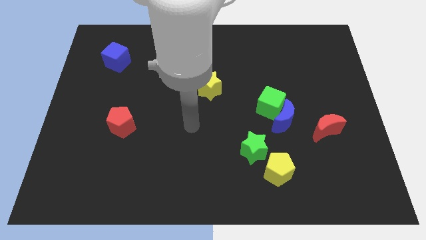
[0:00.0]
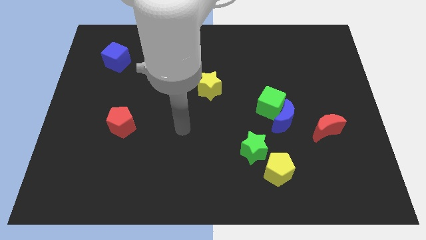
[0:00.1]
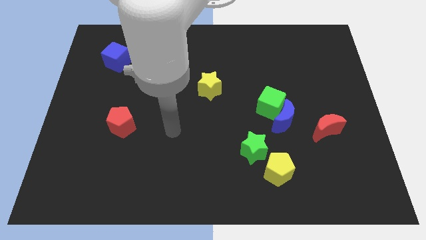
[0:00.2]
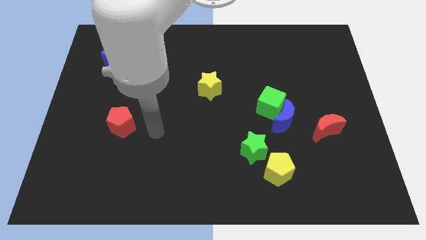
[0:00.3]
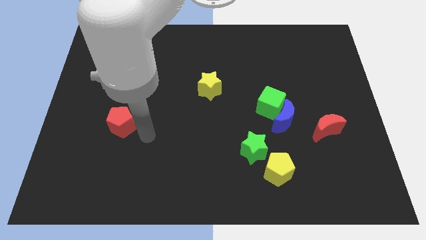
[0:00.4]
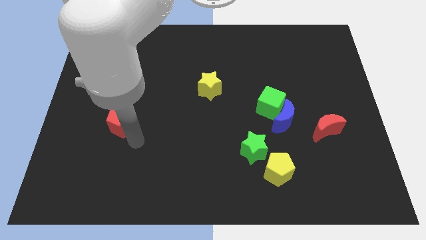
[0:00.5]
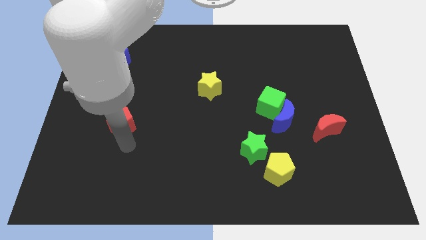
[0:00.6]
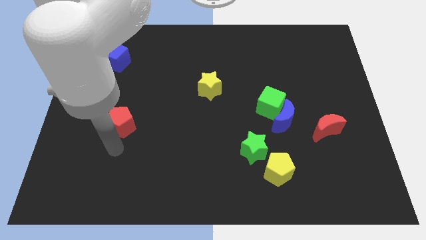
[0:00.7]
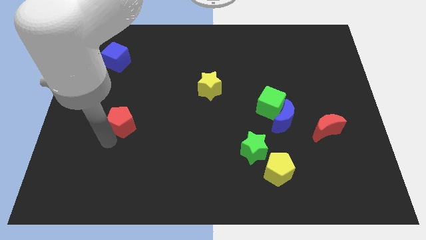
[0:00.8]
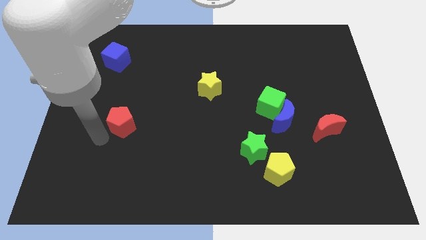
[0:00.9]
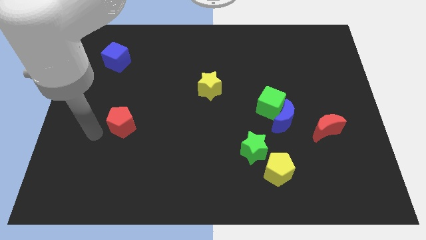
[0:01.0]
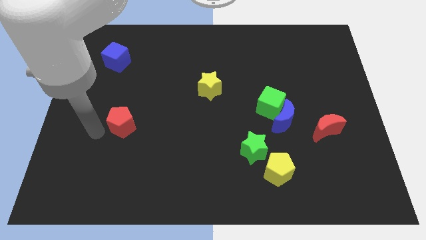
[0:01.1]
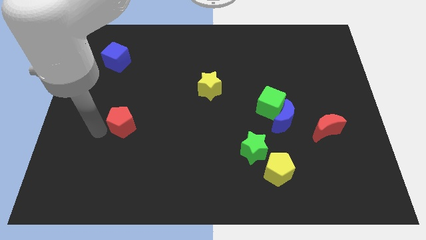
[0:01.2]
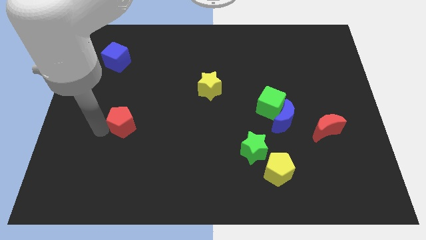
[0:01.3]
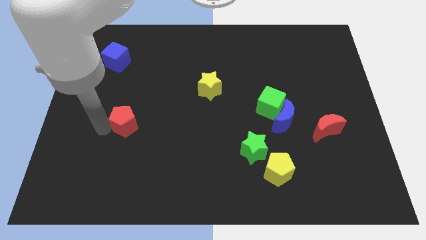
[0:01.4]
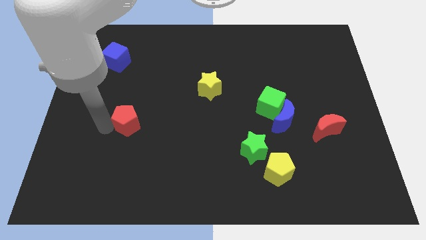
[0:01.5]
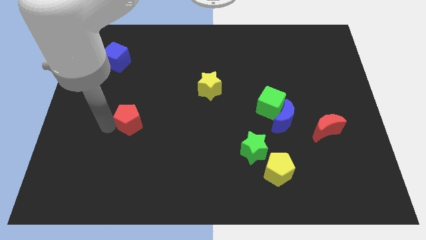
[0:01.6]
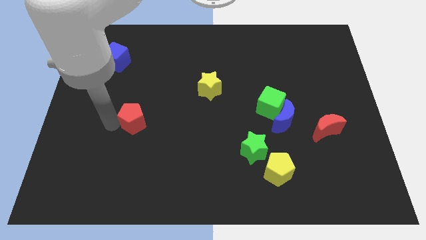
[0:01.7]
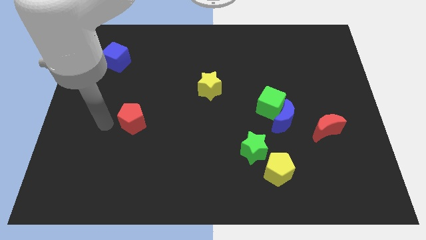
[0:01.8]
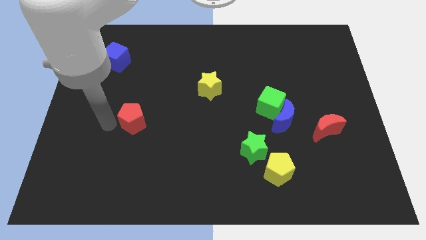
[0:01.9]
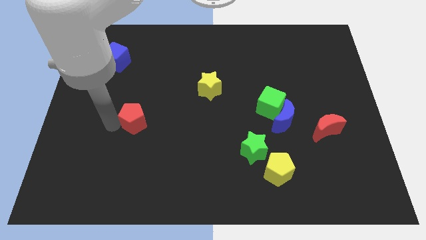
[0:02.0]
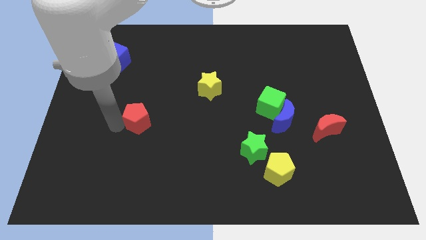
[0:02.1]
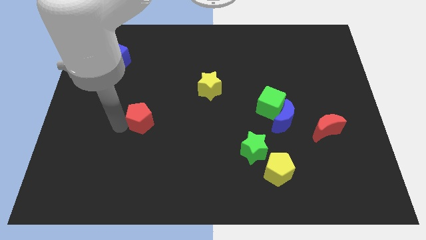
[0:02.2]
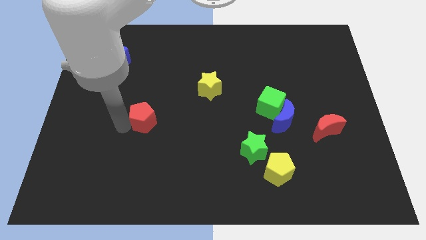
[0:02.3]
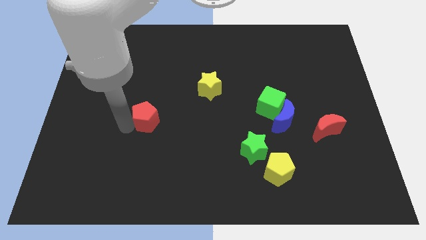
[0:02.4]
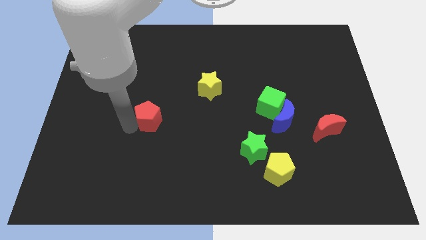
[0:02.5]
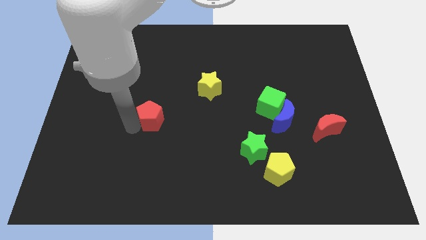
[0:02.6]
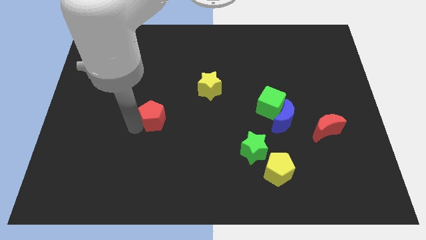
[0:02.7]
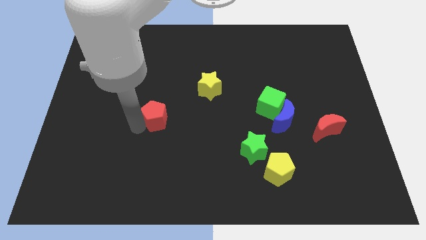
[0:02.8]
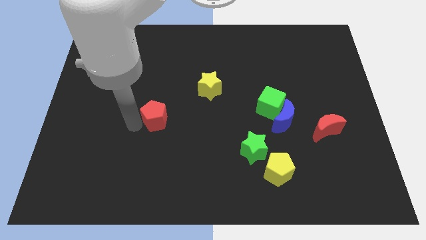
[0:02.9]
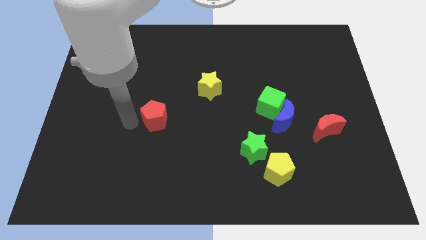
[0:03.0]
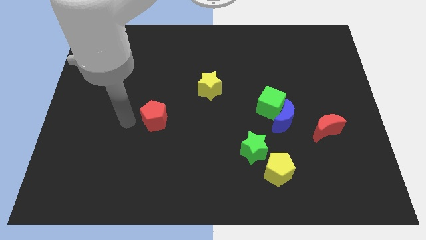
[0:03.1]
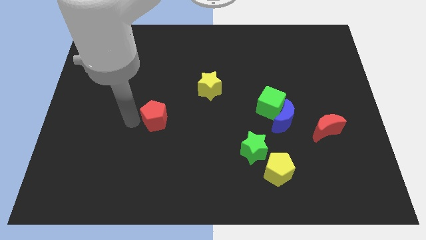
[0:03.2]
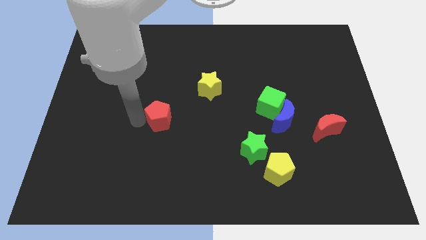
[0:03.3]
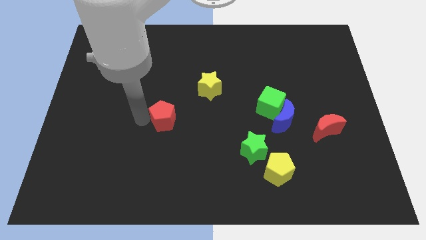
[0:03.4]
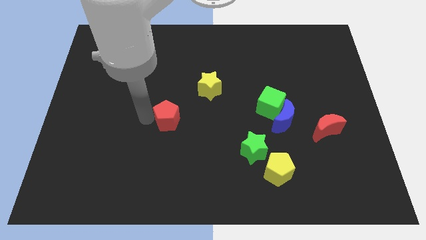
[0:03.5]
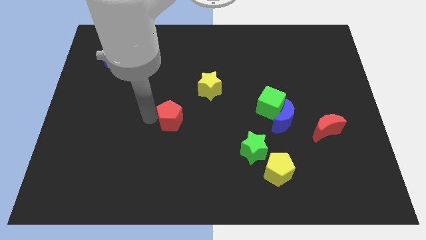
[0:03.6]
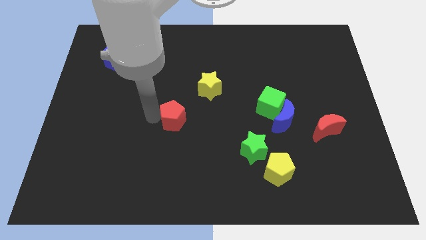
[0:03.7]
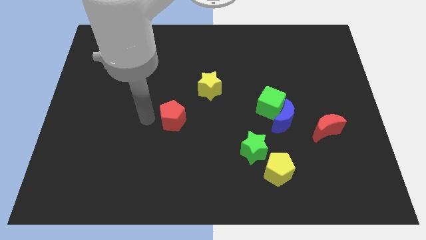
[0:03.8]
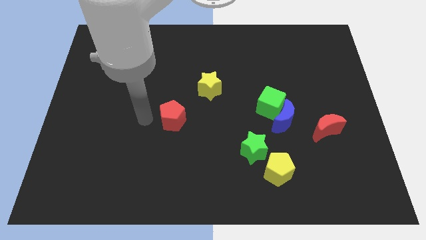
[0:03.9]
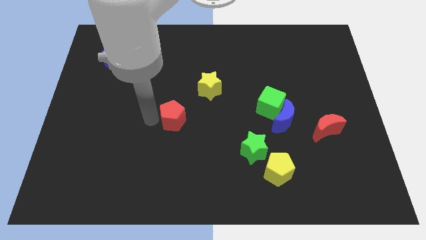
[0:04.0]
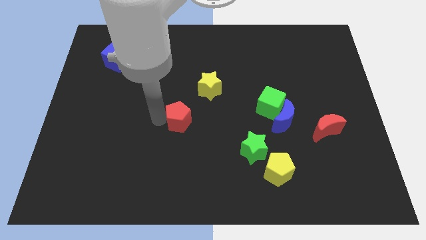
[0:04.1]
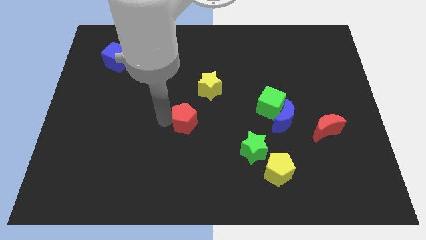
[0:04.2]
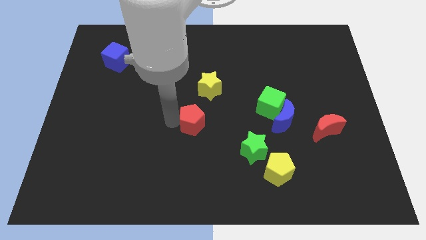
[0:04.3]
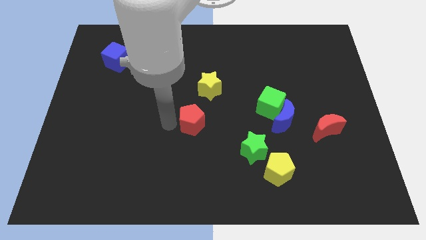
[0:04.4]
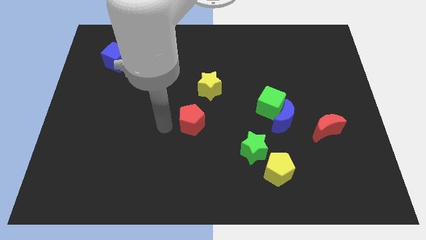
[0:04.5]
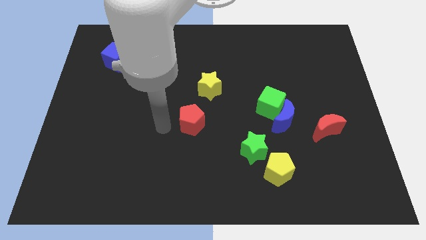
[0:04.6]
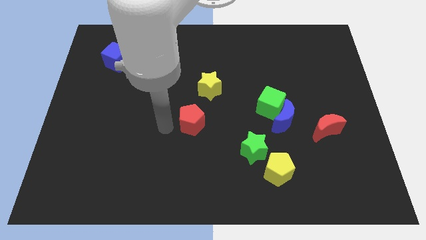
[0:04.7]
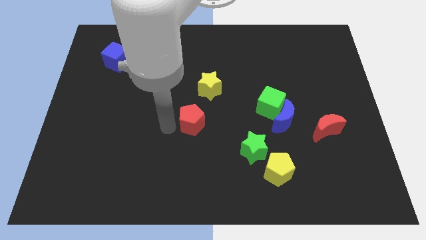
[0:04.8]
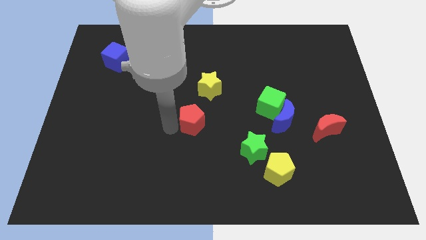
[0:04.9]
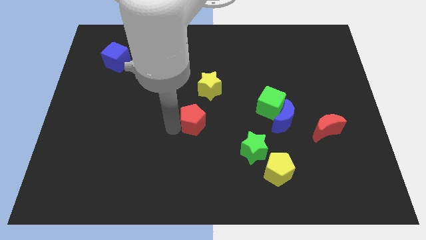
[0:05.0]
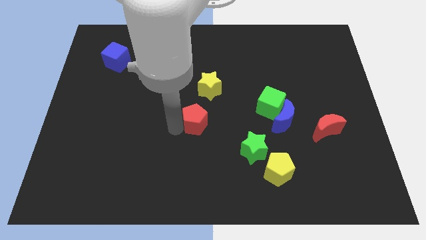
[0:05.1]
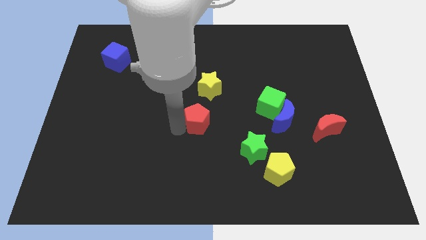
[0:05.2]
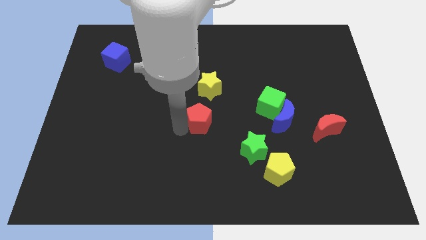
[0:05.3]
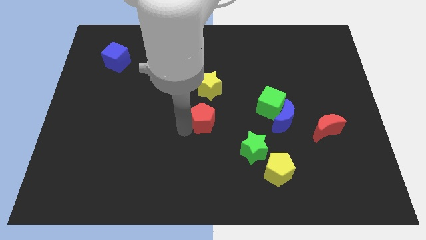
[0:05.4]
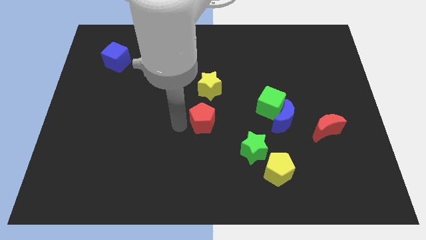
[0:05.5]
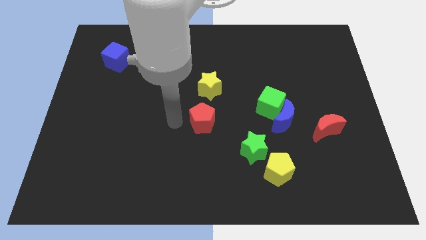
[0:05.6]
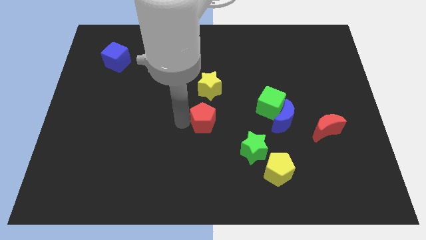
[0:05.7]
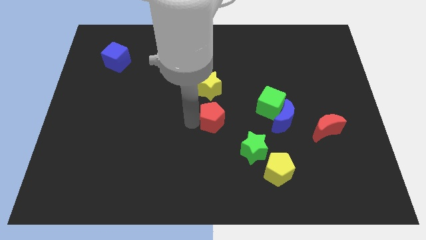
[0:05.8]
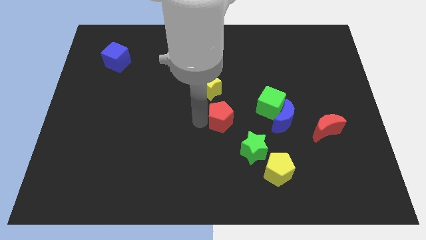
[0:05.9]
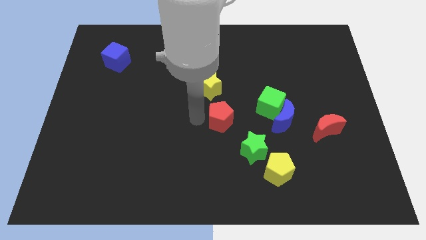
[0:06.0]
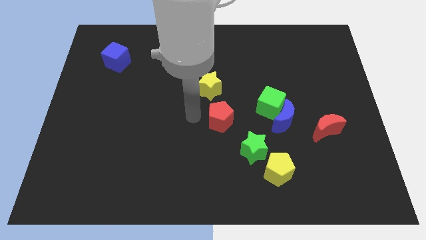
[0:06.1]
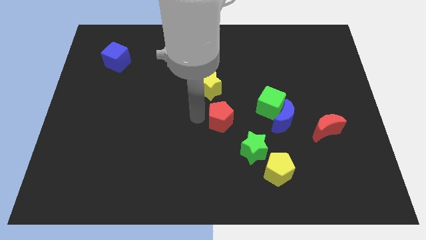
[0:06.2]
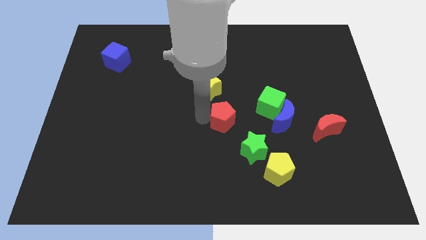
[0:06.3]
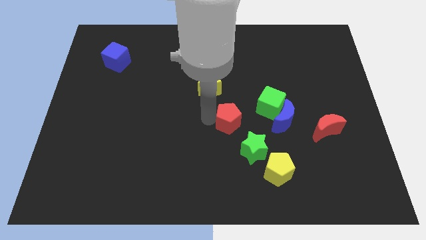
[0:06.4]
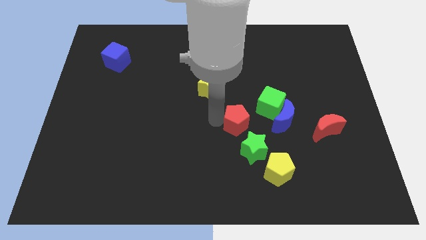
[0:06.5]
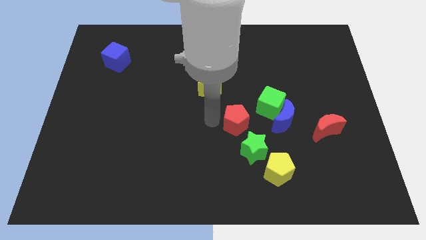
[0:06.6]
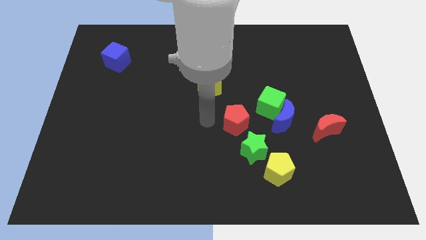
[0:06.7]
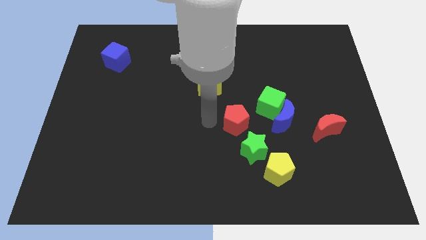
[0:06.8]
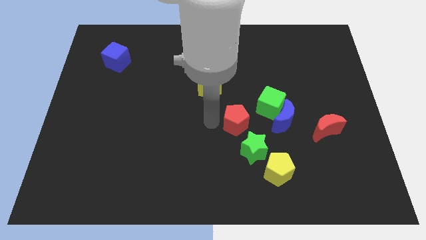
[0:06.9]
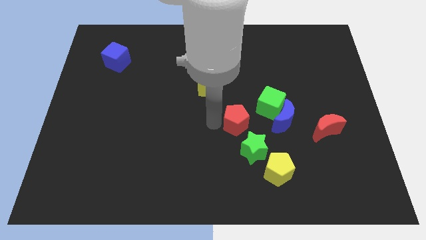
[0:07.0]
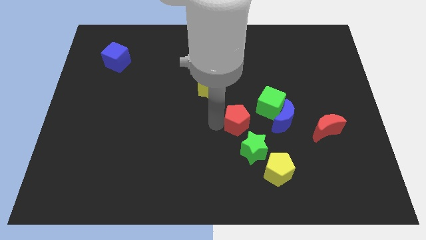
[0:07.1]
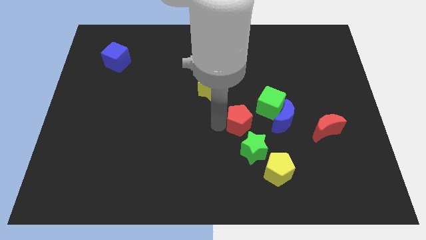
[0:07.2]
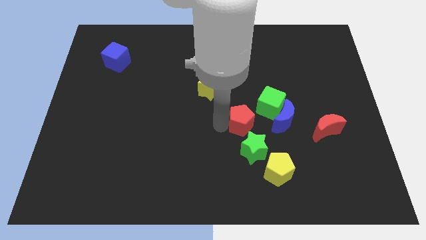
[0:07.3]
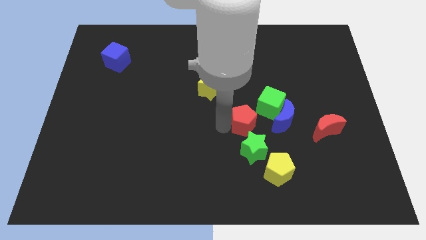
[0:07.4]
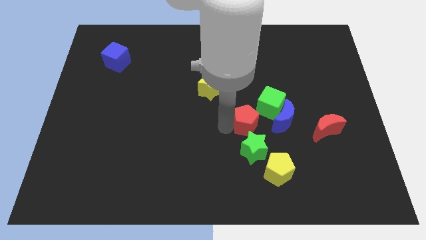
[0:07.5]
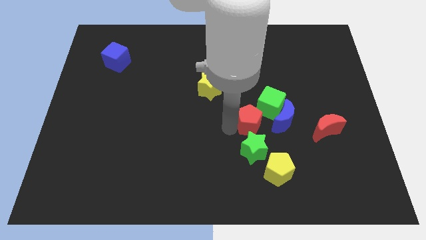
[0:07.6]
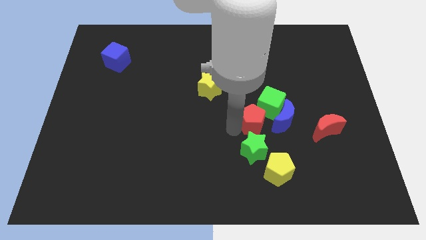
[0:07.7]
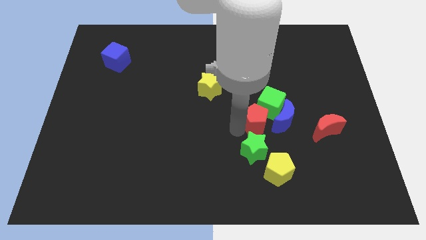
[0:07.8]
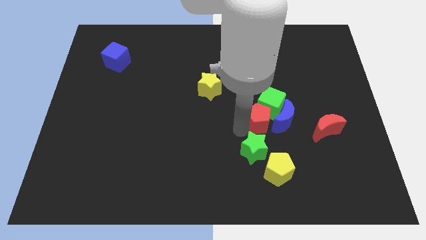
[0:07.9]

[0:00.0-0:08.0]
slide the red pentagon close to the blue moon
